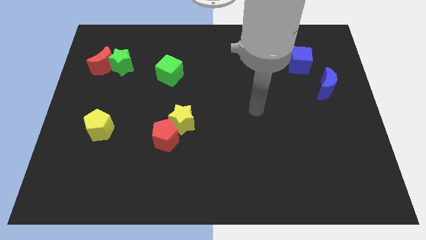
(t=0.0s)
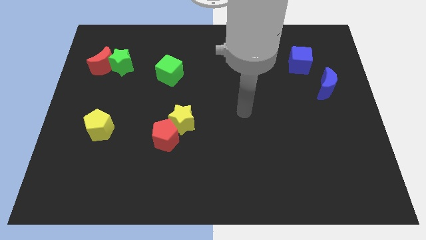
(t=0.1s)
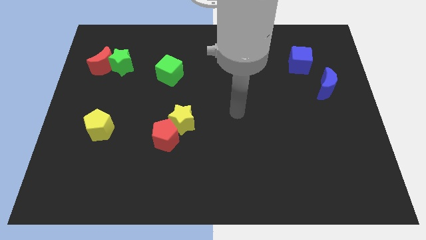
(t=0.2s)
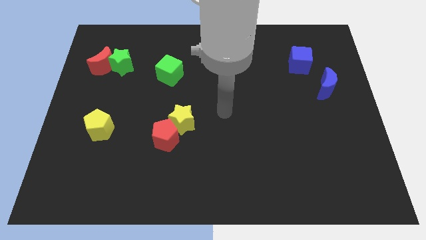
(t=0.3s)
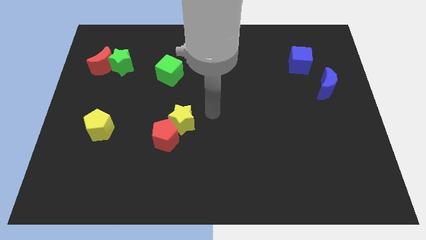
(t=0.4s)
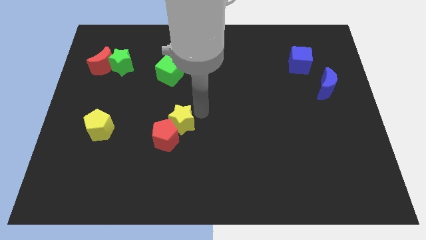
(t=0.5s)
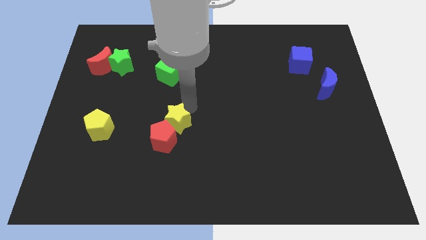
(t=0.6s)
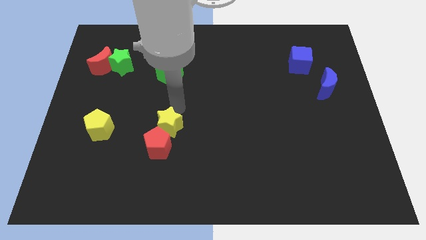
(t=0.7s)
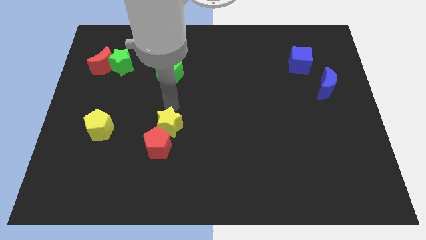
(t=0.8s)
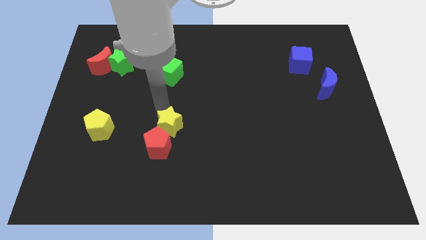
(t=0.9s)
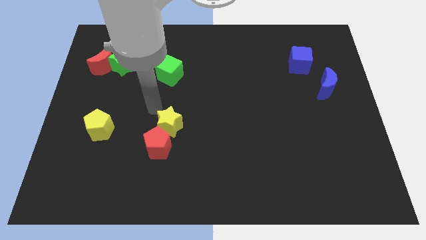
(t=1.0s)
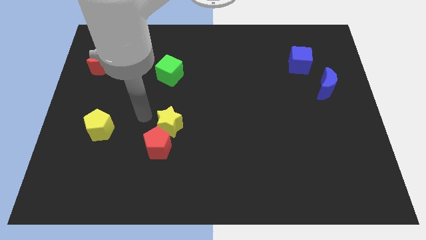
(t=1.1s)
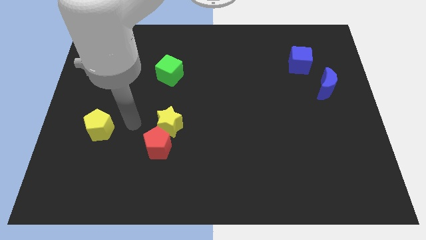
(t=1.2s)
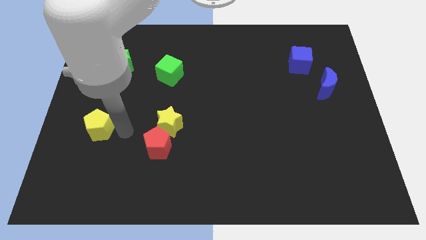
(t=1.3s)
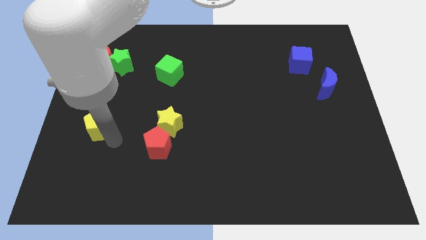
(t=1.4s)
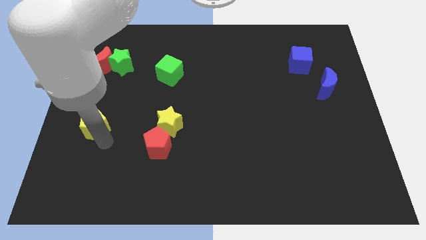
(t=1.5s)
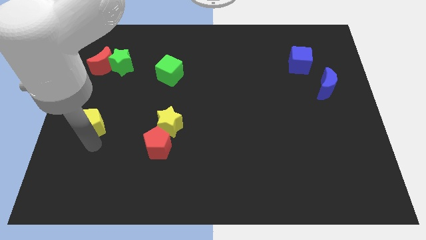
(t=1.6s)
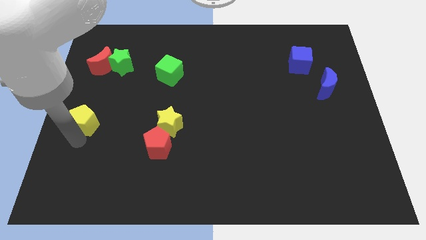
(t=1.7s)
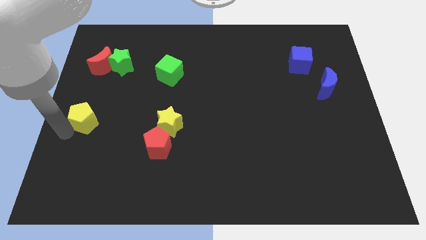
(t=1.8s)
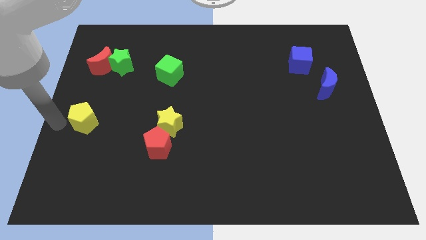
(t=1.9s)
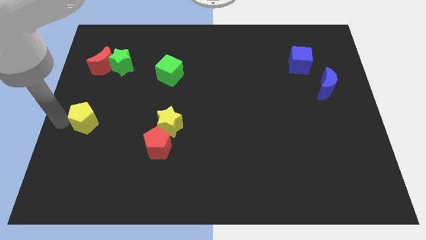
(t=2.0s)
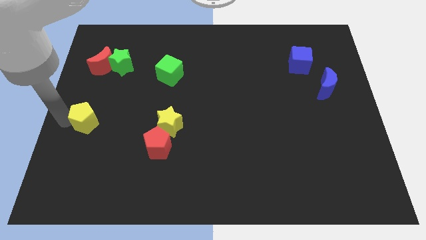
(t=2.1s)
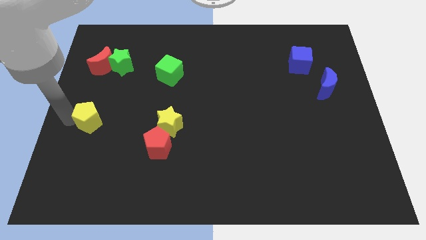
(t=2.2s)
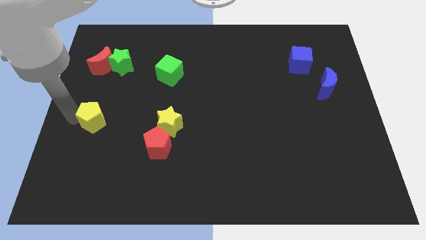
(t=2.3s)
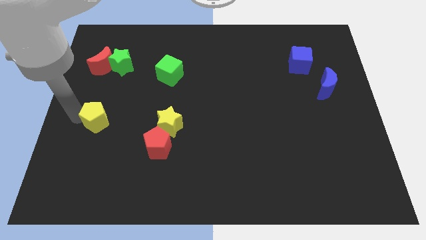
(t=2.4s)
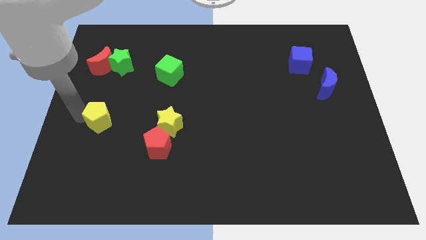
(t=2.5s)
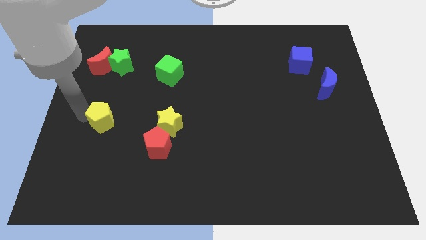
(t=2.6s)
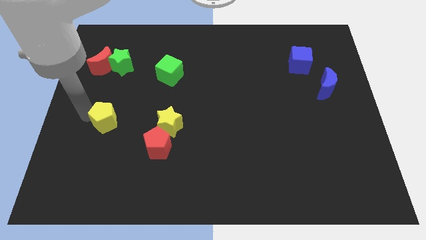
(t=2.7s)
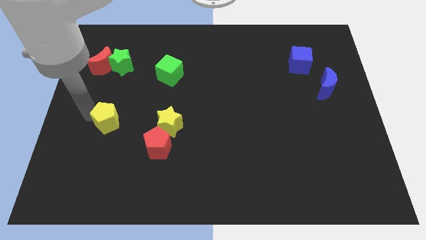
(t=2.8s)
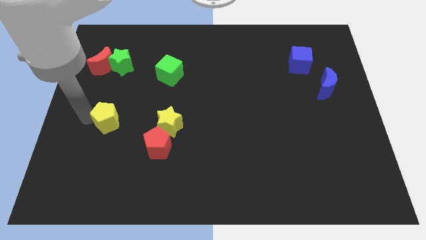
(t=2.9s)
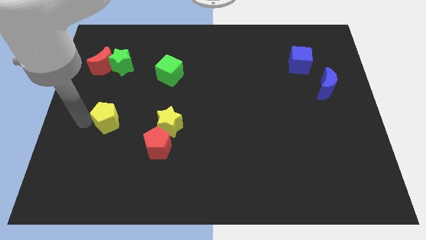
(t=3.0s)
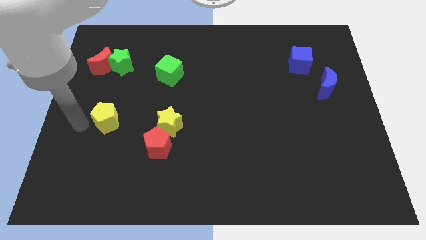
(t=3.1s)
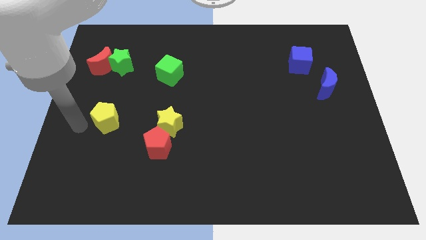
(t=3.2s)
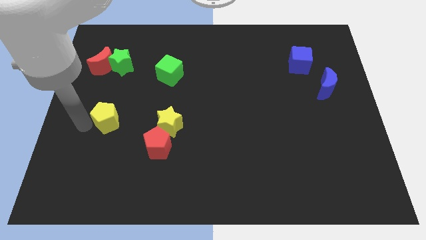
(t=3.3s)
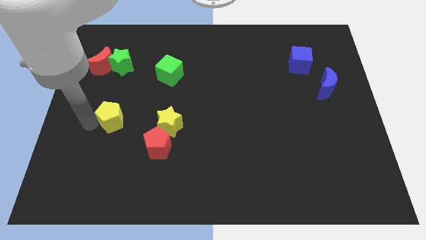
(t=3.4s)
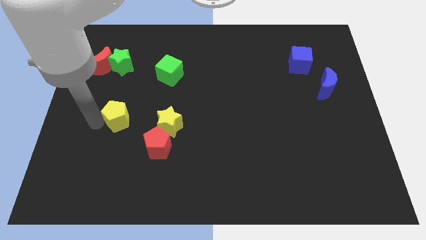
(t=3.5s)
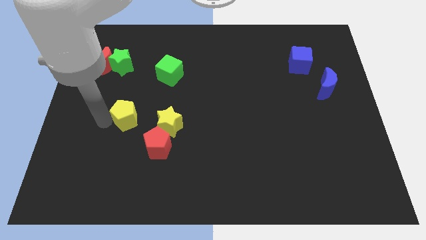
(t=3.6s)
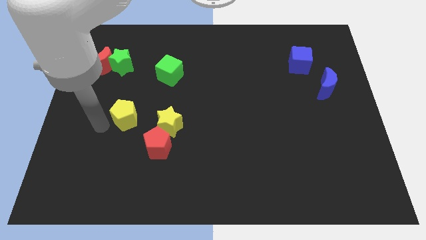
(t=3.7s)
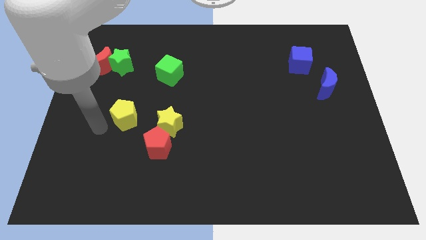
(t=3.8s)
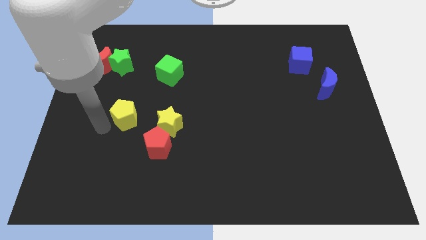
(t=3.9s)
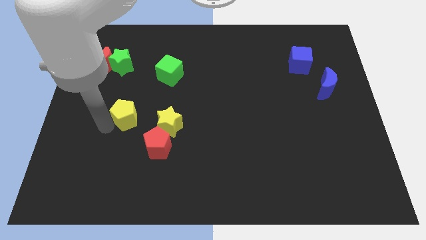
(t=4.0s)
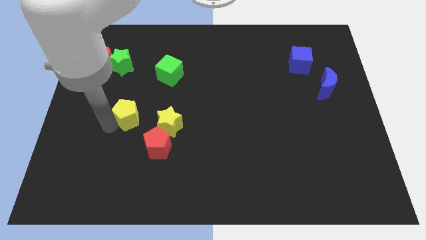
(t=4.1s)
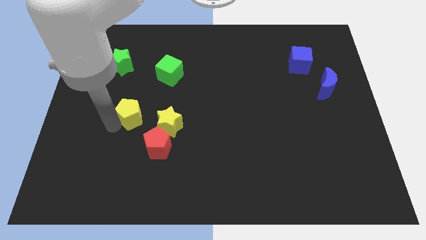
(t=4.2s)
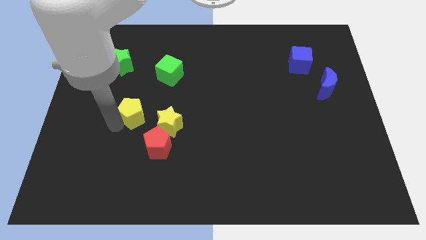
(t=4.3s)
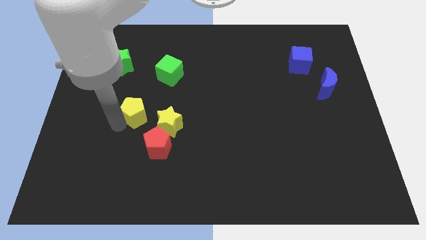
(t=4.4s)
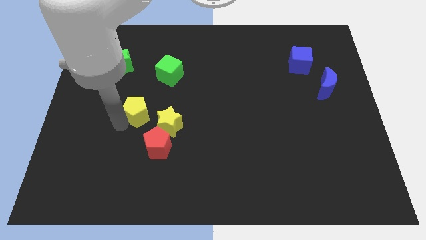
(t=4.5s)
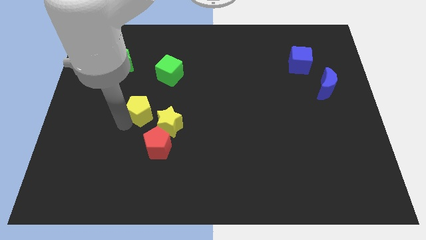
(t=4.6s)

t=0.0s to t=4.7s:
push the yellow pentagon to the top of the red pentagon

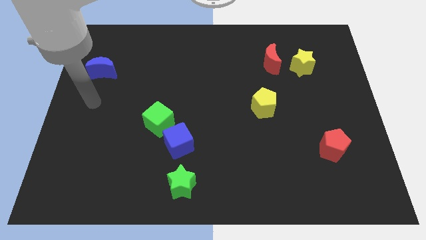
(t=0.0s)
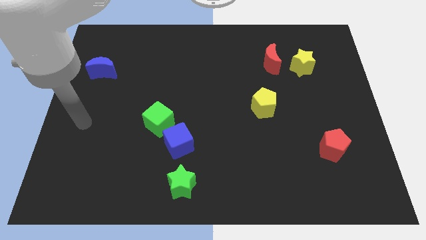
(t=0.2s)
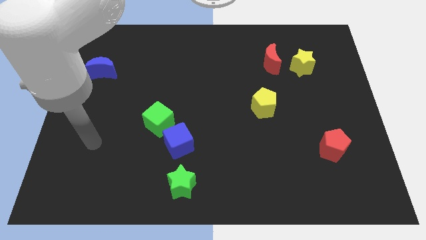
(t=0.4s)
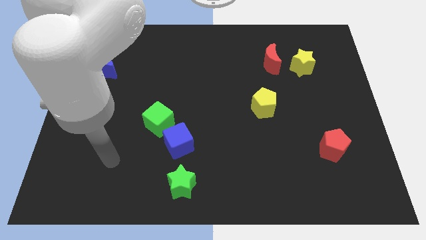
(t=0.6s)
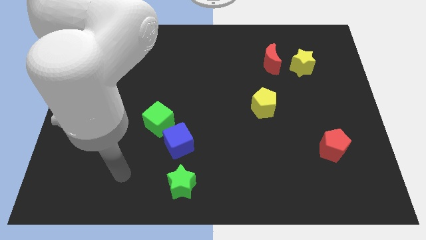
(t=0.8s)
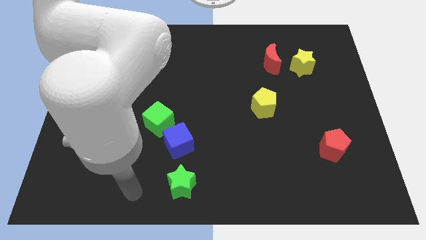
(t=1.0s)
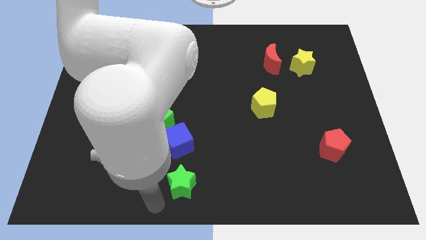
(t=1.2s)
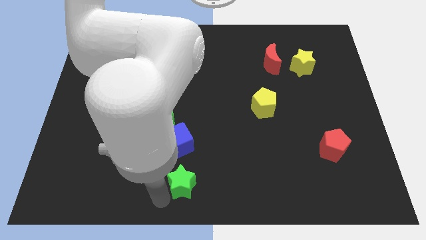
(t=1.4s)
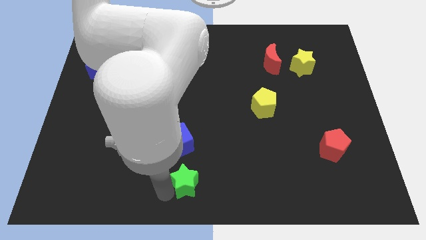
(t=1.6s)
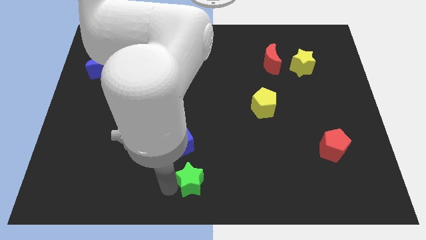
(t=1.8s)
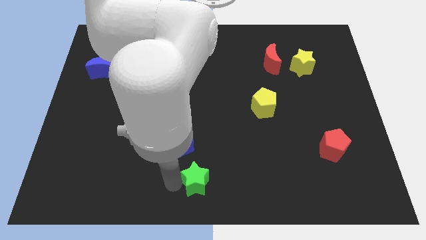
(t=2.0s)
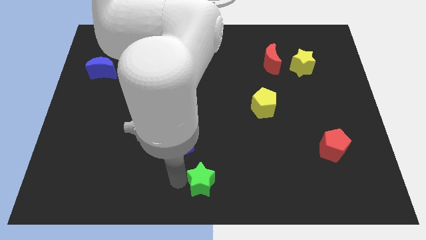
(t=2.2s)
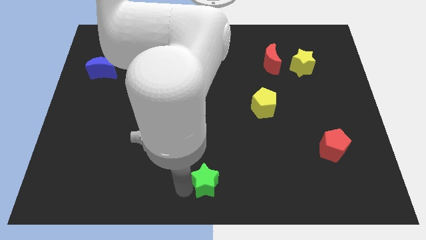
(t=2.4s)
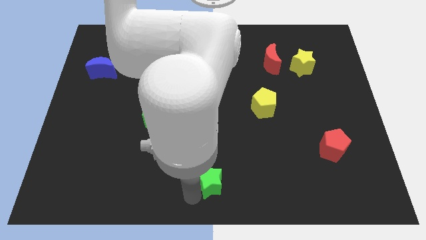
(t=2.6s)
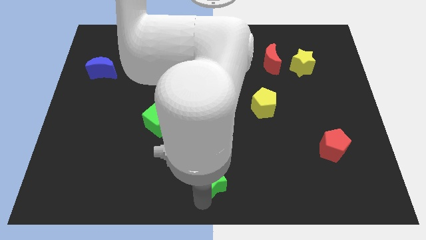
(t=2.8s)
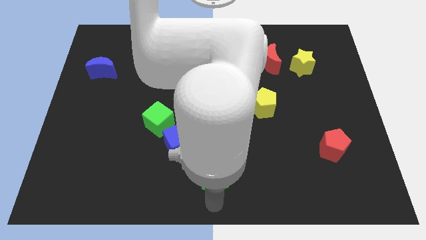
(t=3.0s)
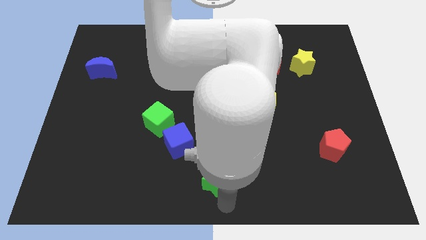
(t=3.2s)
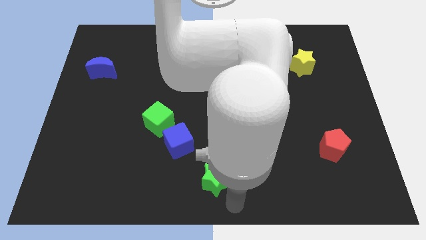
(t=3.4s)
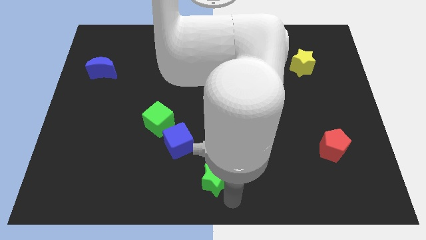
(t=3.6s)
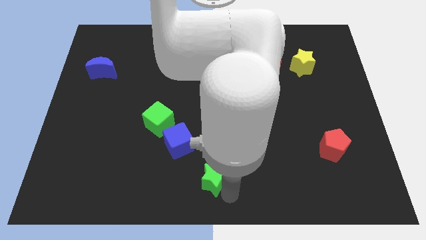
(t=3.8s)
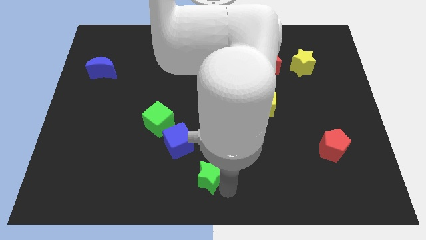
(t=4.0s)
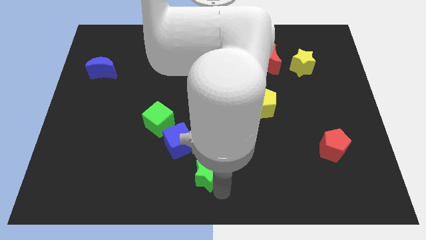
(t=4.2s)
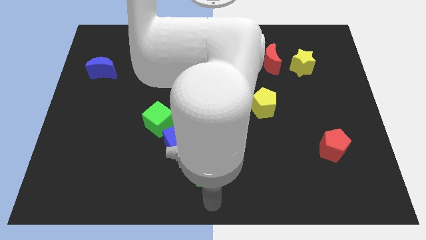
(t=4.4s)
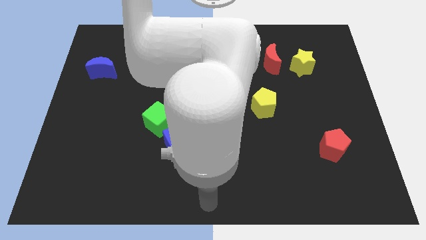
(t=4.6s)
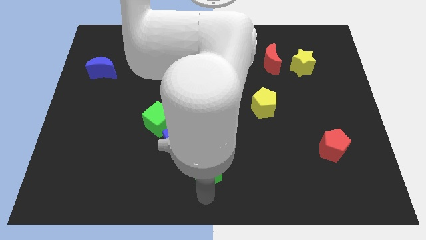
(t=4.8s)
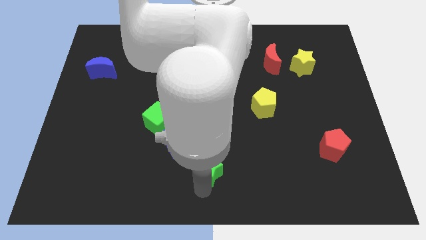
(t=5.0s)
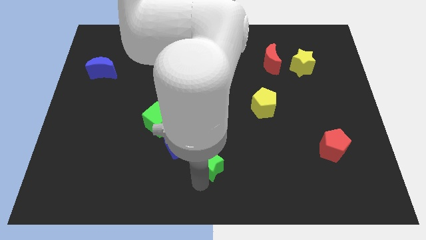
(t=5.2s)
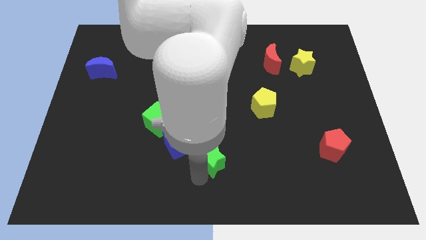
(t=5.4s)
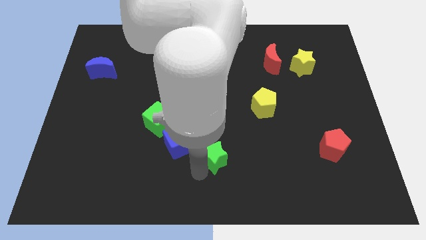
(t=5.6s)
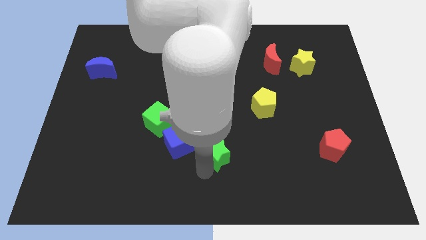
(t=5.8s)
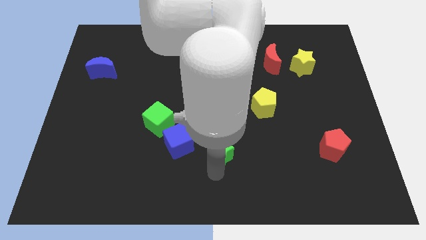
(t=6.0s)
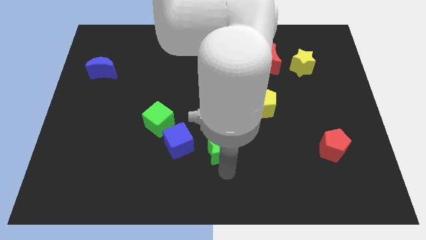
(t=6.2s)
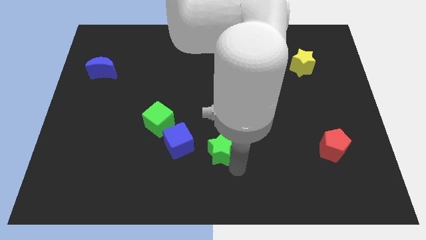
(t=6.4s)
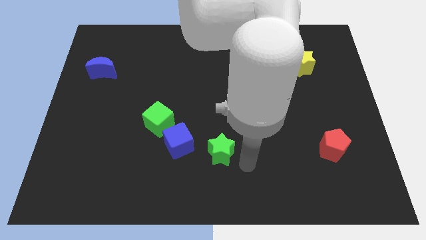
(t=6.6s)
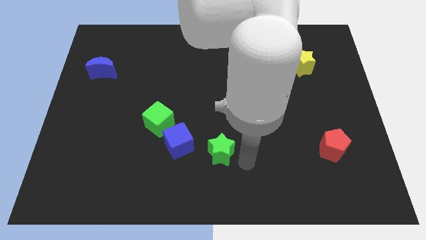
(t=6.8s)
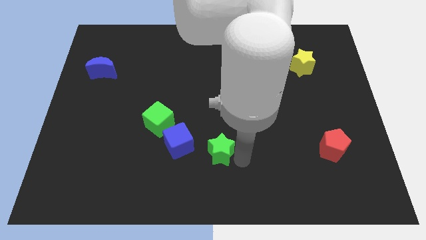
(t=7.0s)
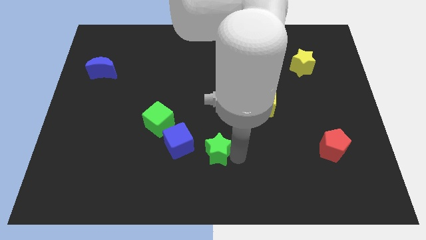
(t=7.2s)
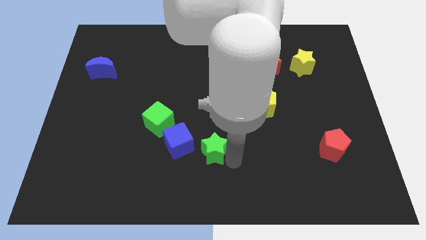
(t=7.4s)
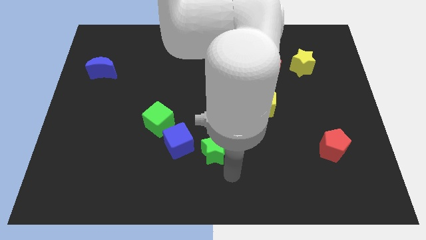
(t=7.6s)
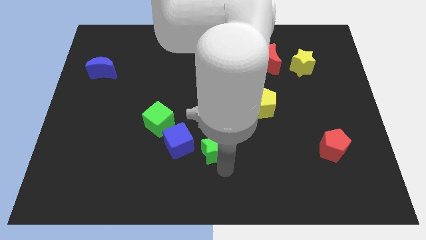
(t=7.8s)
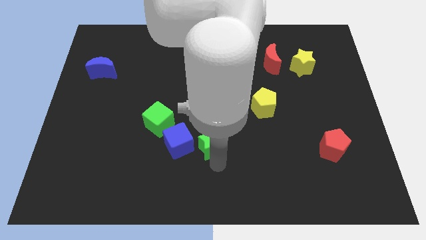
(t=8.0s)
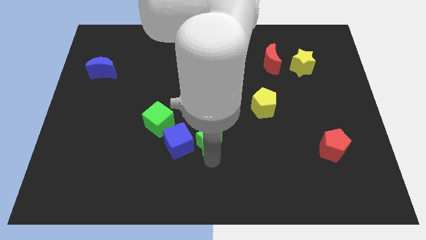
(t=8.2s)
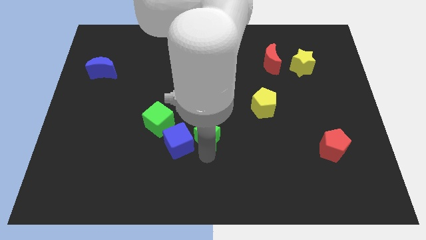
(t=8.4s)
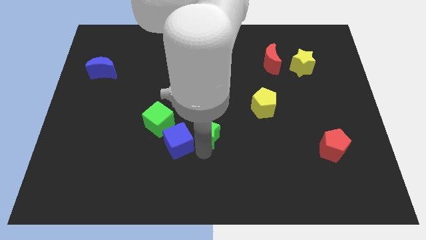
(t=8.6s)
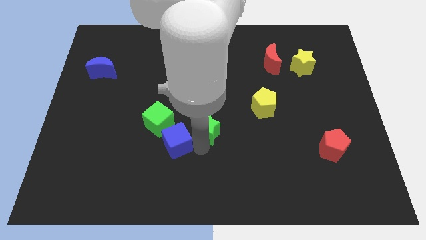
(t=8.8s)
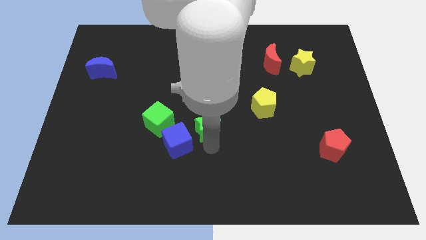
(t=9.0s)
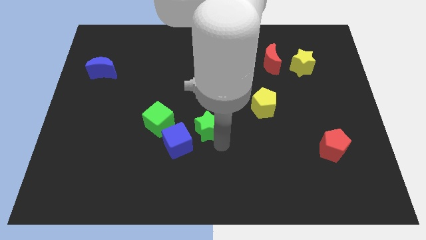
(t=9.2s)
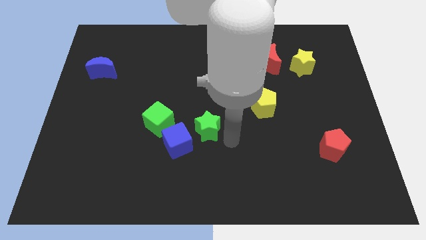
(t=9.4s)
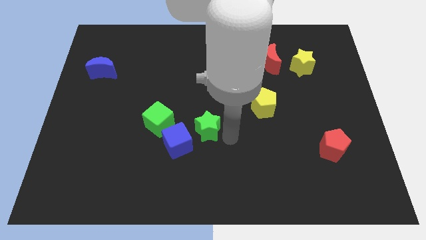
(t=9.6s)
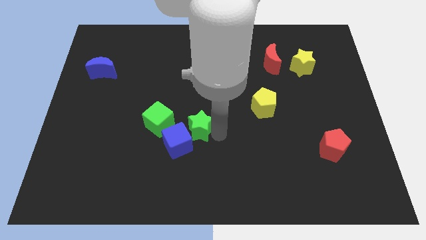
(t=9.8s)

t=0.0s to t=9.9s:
push the green star above the blue cube
